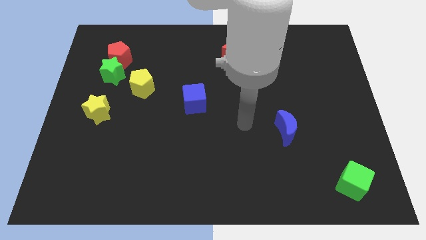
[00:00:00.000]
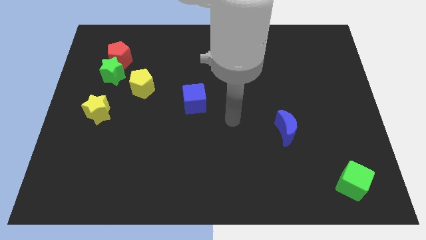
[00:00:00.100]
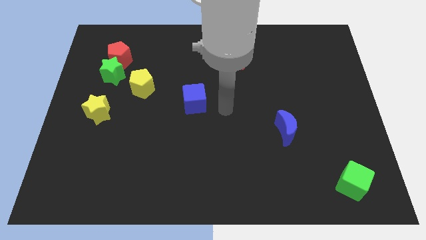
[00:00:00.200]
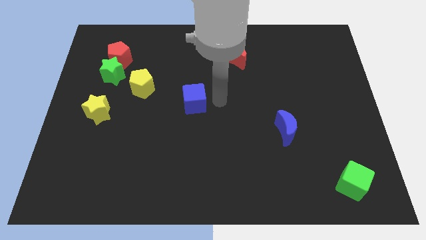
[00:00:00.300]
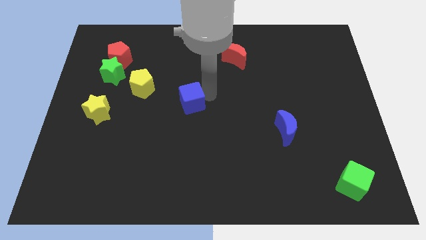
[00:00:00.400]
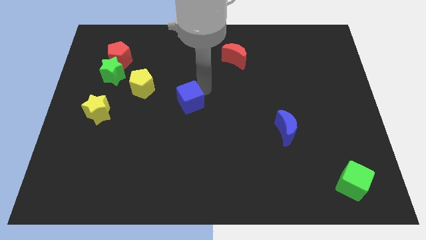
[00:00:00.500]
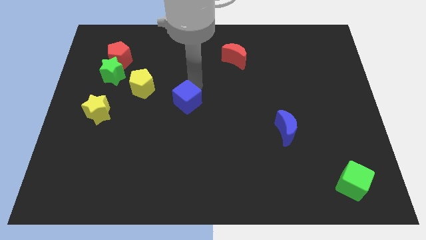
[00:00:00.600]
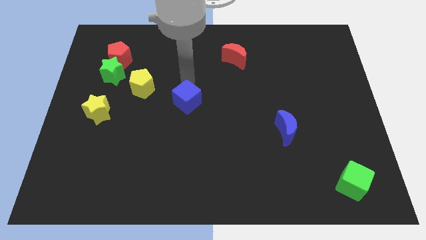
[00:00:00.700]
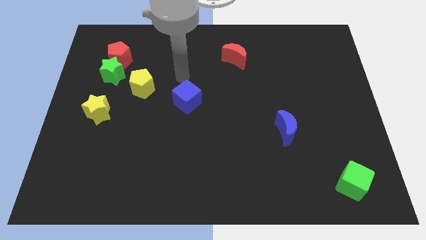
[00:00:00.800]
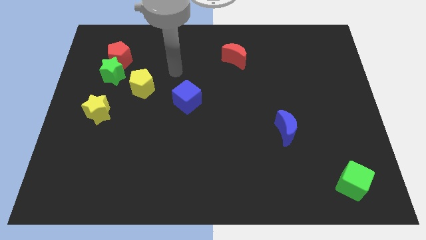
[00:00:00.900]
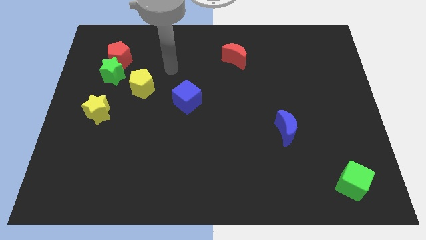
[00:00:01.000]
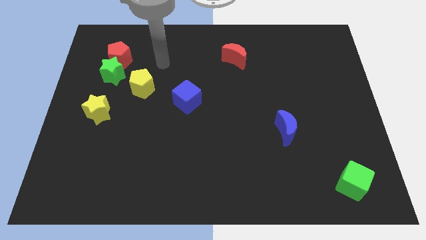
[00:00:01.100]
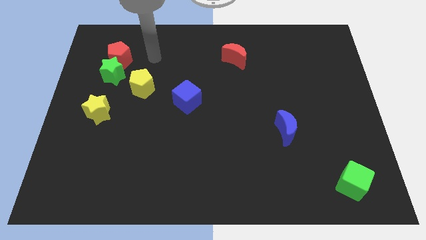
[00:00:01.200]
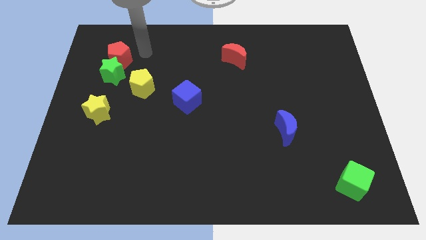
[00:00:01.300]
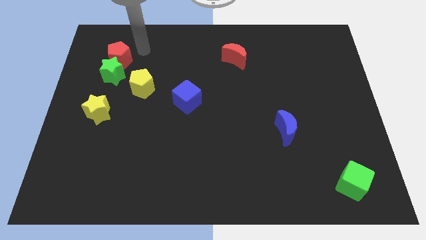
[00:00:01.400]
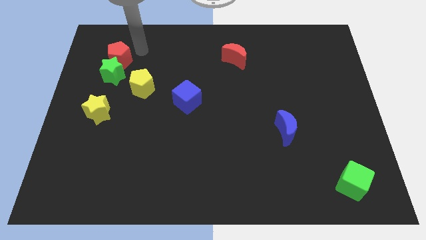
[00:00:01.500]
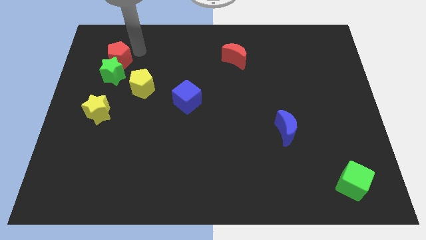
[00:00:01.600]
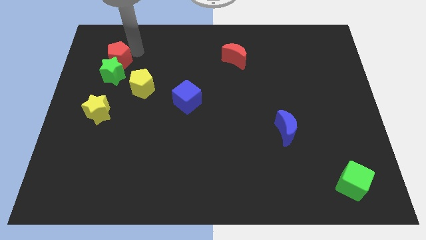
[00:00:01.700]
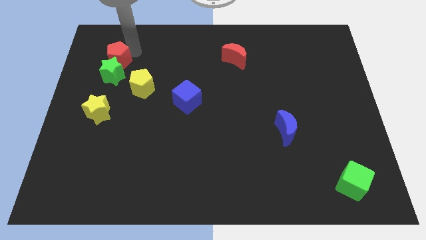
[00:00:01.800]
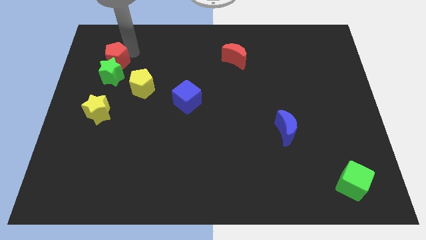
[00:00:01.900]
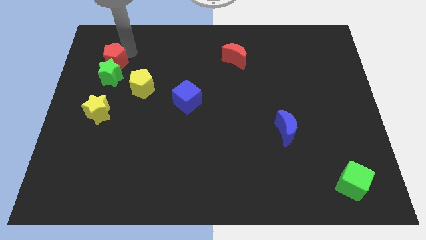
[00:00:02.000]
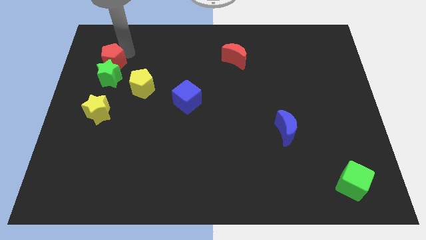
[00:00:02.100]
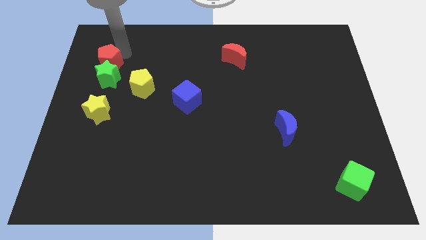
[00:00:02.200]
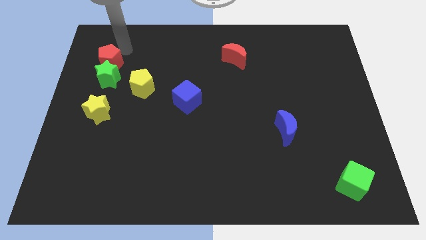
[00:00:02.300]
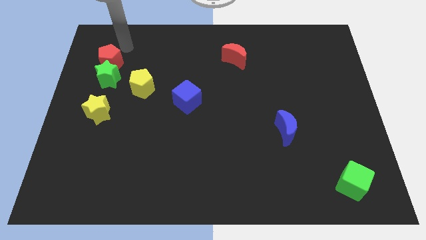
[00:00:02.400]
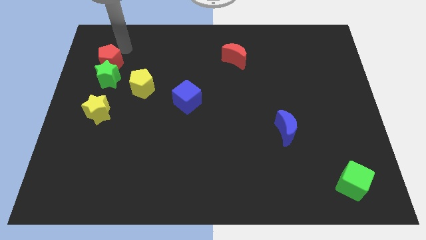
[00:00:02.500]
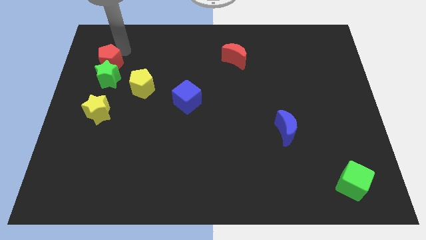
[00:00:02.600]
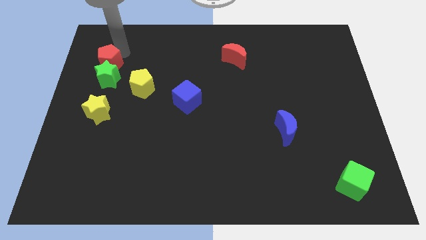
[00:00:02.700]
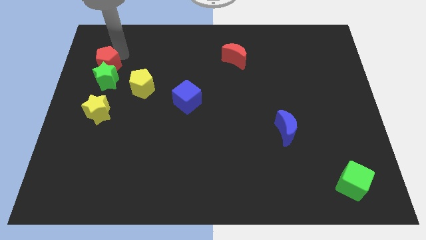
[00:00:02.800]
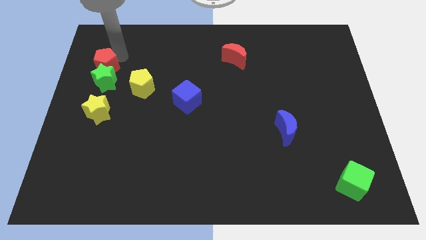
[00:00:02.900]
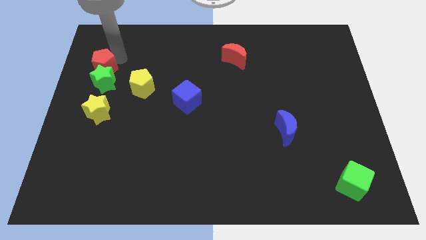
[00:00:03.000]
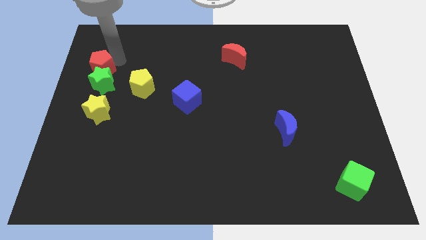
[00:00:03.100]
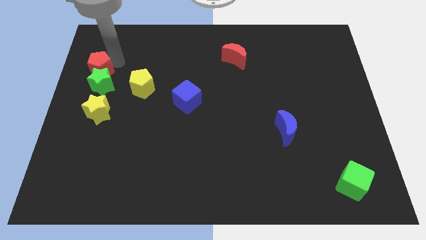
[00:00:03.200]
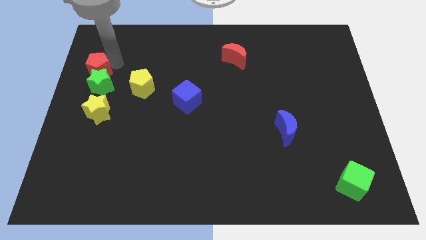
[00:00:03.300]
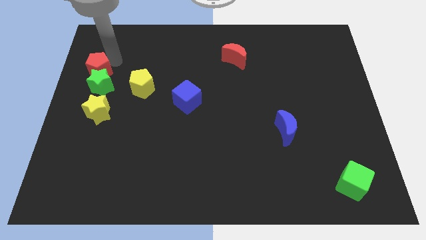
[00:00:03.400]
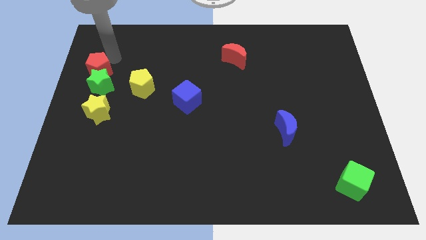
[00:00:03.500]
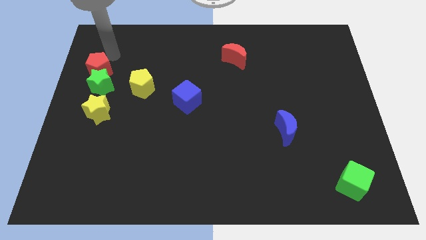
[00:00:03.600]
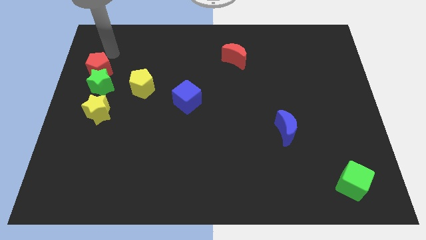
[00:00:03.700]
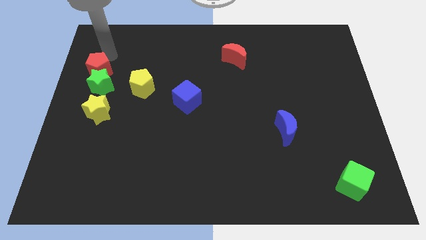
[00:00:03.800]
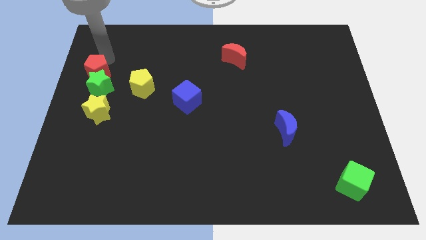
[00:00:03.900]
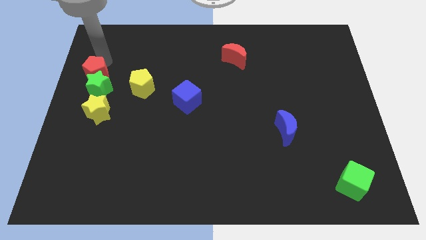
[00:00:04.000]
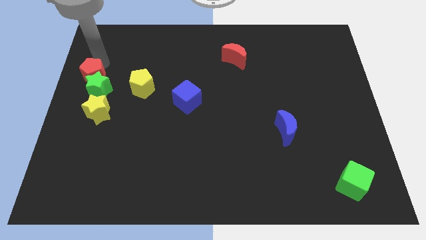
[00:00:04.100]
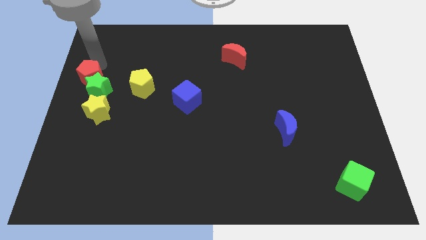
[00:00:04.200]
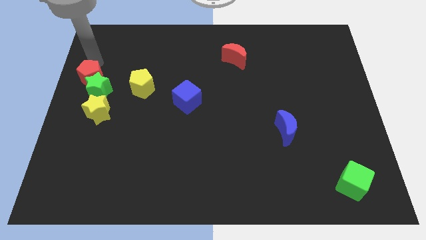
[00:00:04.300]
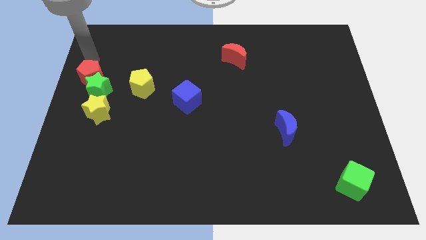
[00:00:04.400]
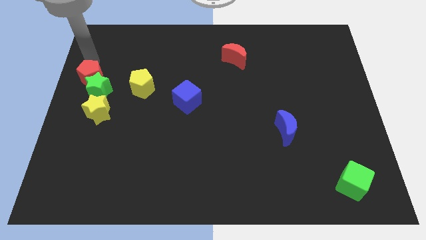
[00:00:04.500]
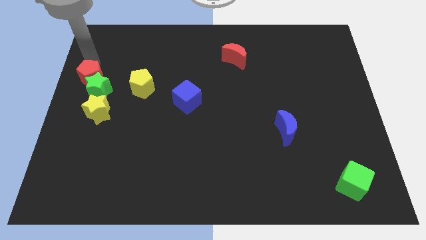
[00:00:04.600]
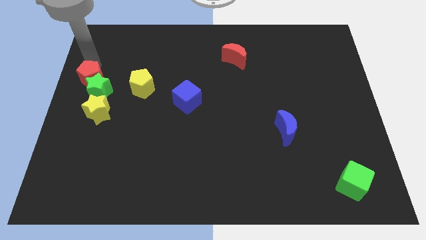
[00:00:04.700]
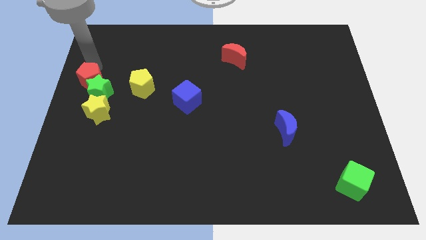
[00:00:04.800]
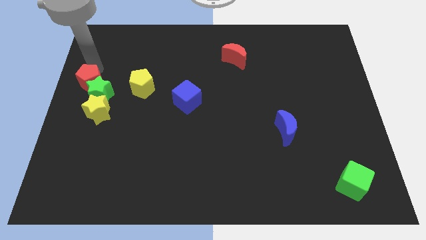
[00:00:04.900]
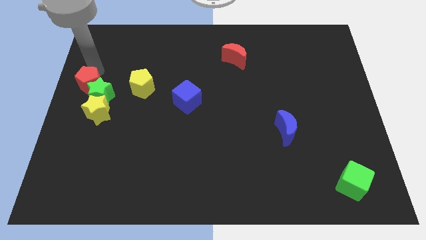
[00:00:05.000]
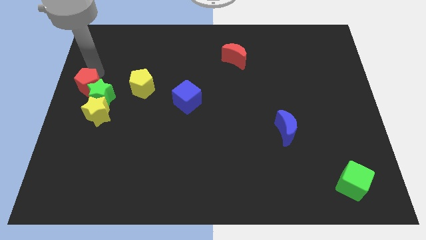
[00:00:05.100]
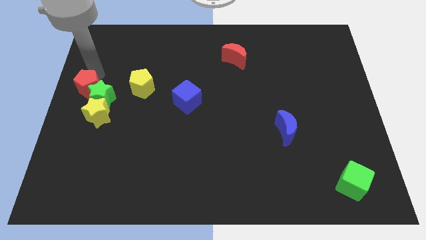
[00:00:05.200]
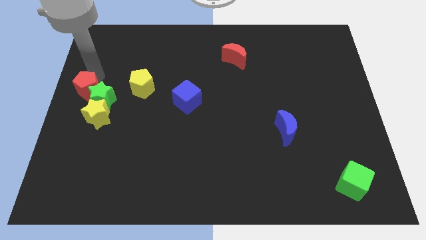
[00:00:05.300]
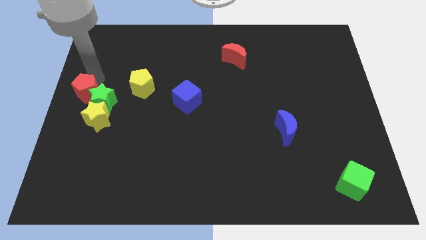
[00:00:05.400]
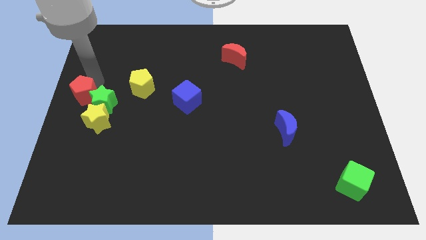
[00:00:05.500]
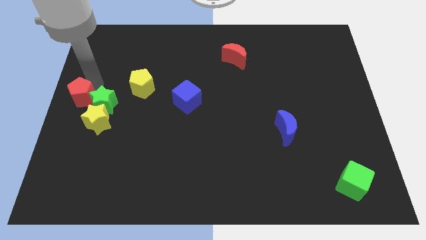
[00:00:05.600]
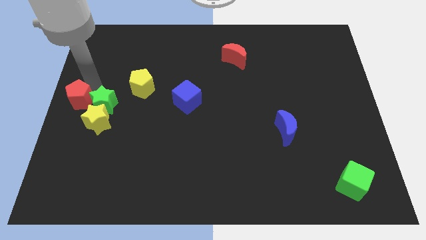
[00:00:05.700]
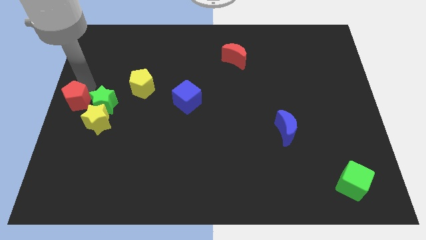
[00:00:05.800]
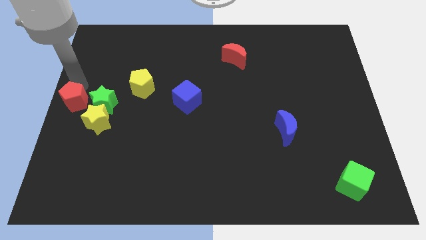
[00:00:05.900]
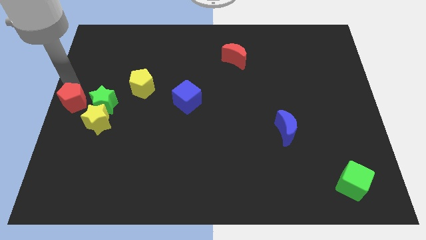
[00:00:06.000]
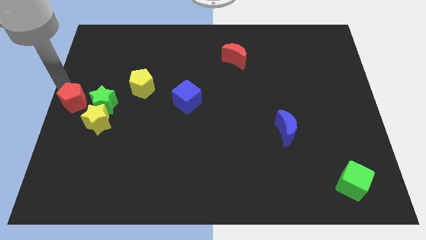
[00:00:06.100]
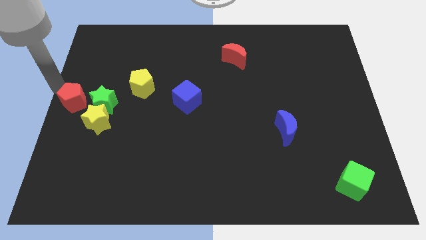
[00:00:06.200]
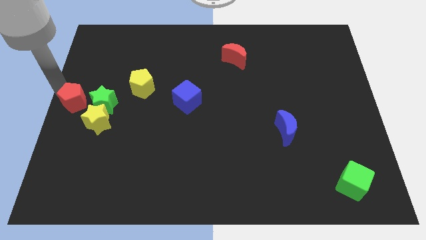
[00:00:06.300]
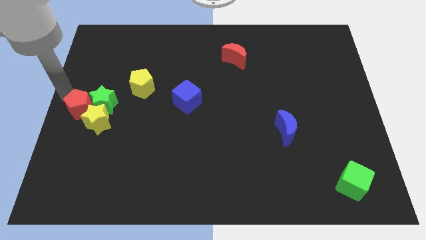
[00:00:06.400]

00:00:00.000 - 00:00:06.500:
push the red pentagon towards the yellow star

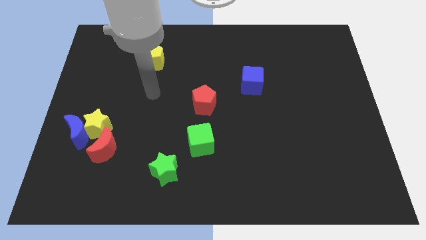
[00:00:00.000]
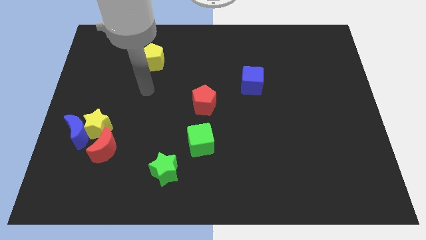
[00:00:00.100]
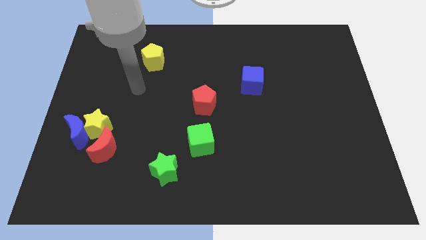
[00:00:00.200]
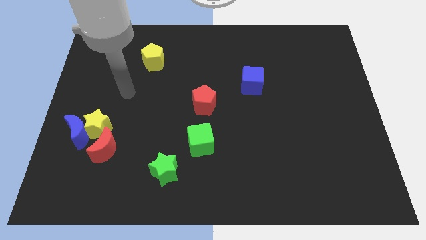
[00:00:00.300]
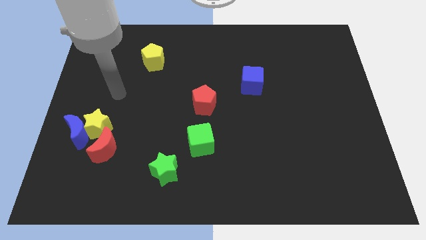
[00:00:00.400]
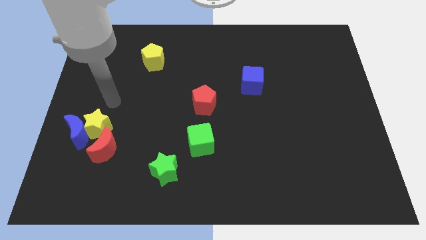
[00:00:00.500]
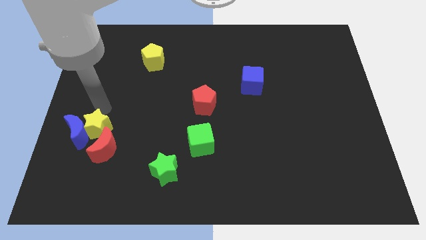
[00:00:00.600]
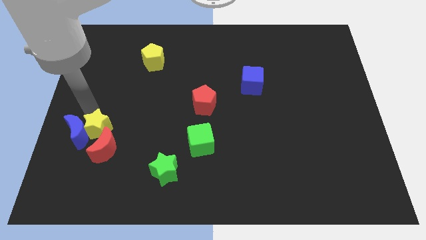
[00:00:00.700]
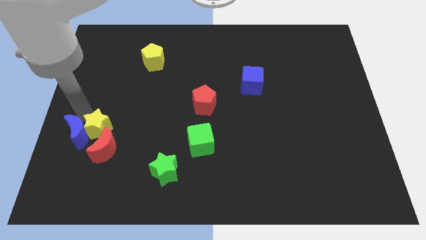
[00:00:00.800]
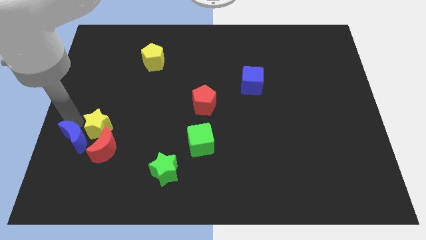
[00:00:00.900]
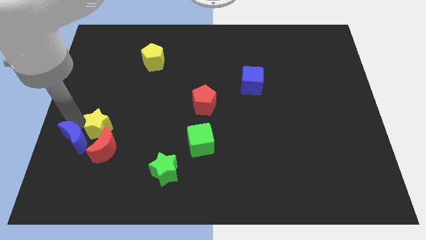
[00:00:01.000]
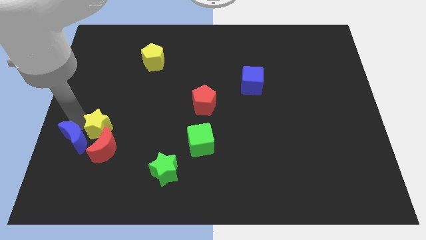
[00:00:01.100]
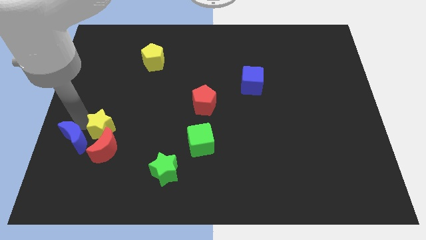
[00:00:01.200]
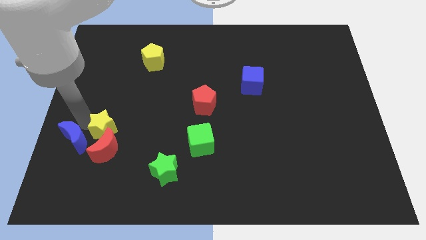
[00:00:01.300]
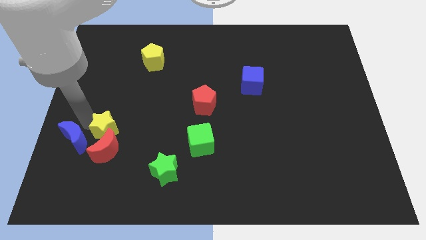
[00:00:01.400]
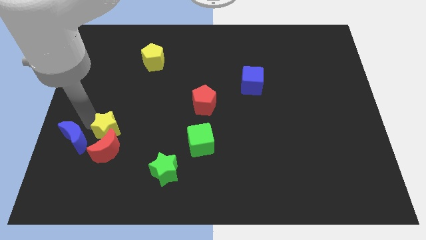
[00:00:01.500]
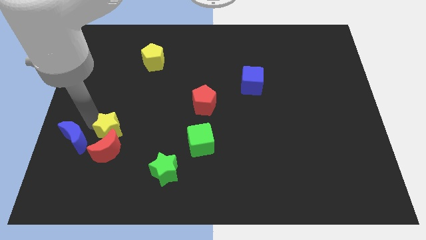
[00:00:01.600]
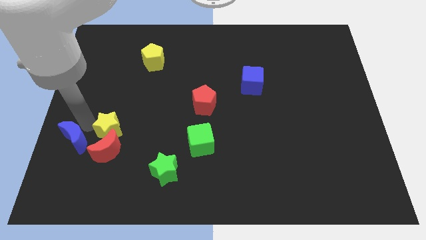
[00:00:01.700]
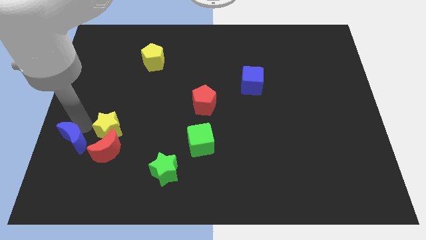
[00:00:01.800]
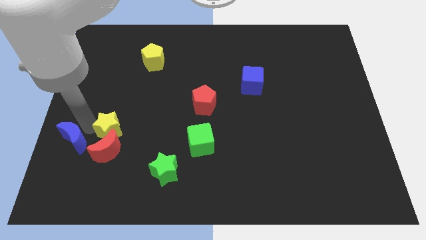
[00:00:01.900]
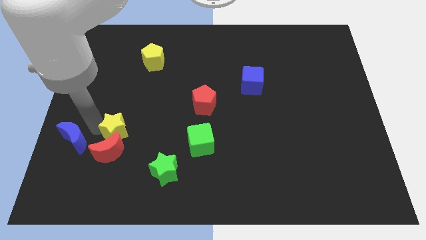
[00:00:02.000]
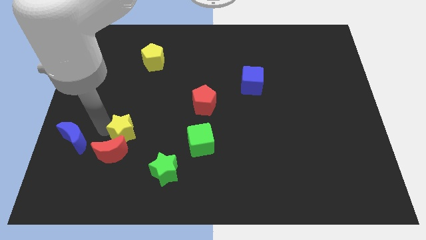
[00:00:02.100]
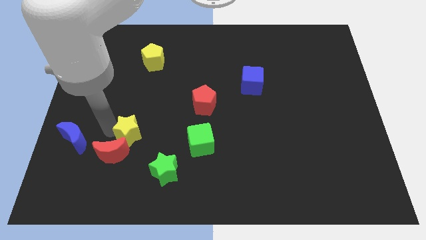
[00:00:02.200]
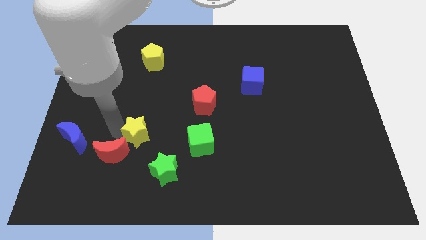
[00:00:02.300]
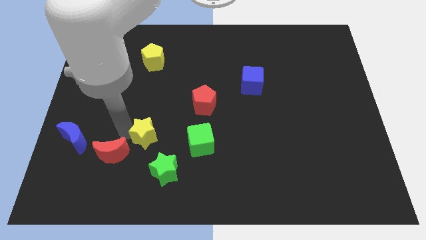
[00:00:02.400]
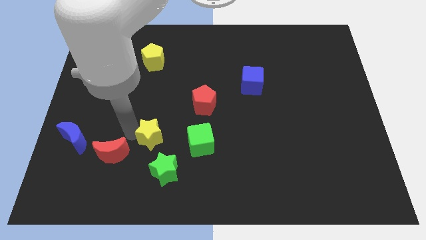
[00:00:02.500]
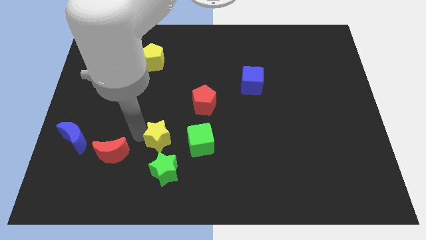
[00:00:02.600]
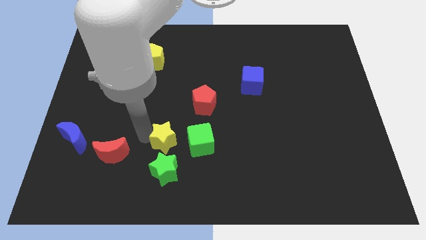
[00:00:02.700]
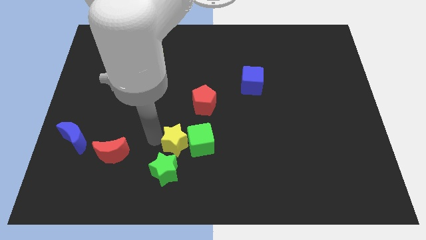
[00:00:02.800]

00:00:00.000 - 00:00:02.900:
push the yellow star towards the green cube
